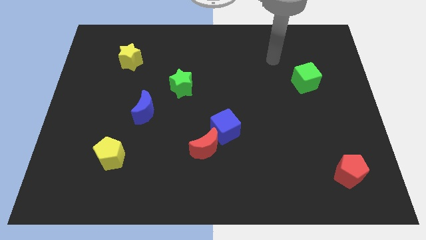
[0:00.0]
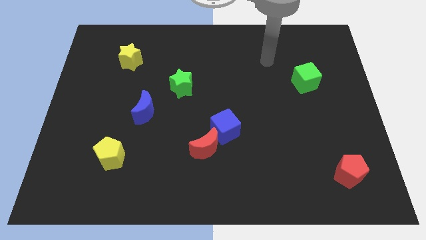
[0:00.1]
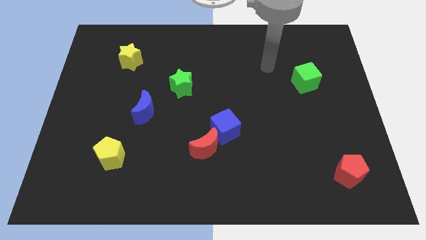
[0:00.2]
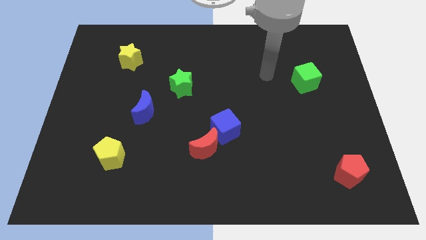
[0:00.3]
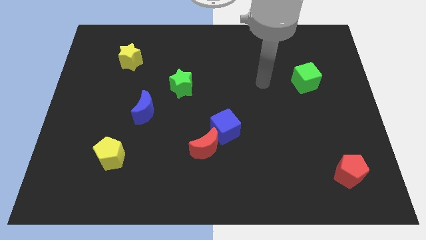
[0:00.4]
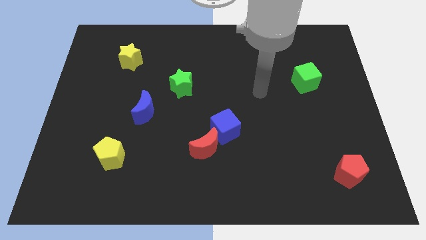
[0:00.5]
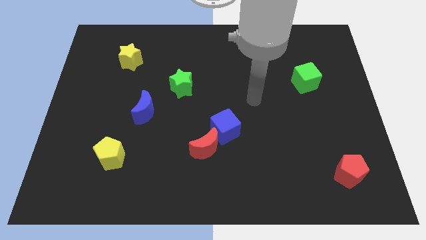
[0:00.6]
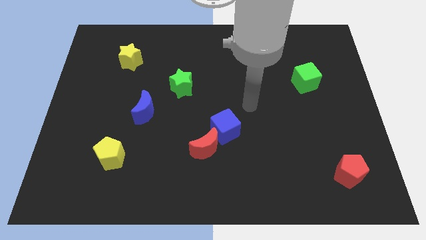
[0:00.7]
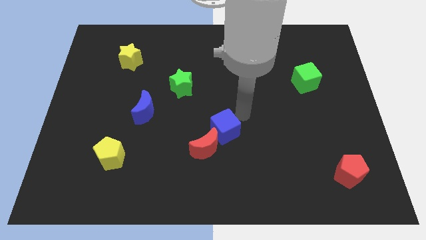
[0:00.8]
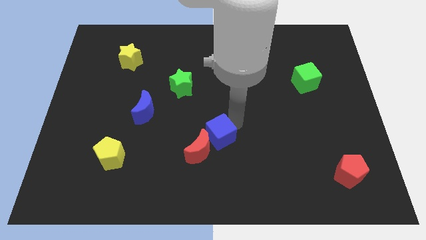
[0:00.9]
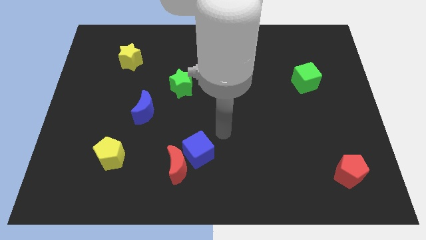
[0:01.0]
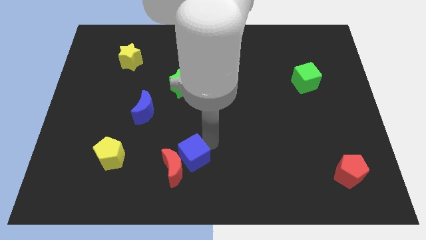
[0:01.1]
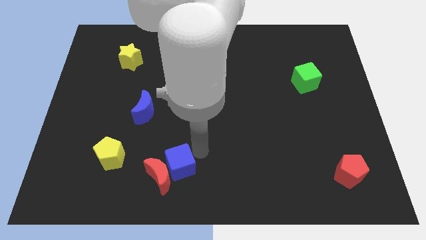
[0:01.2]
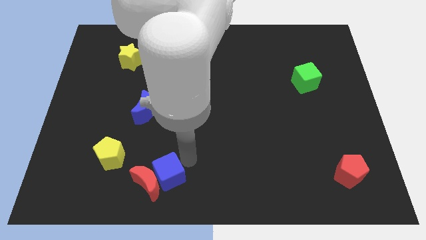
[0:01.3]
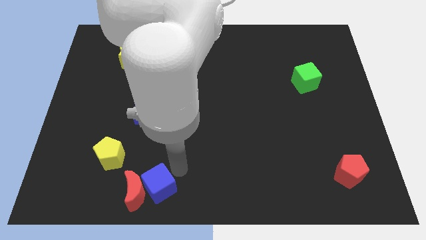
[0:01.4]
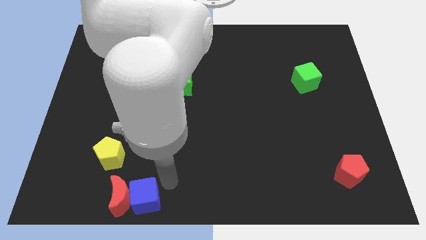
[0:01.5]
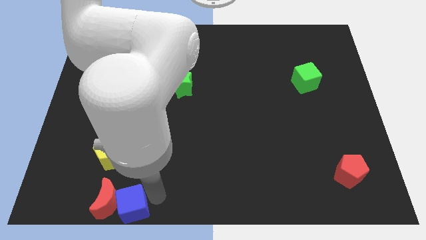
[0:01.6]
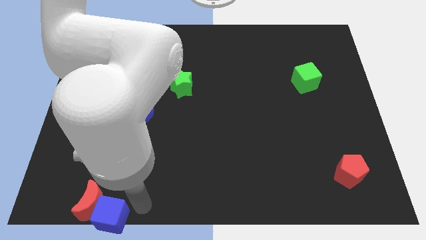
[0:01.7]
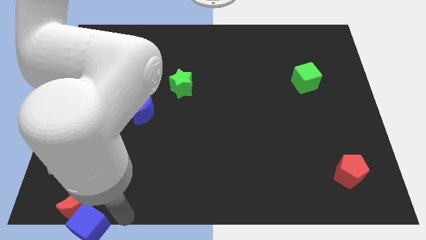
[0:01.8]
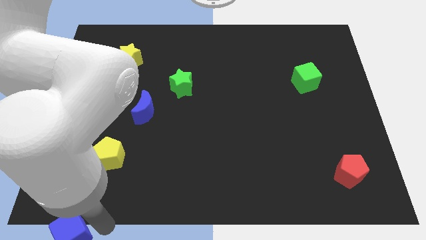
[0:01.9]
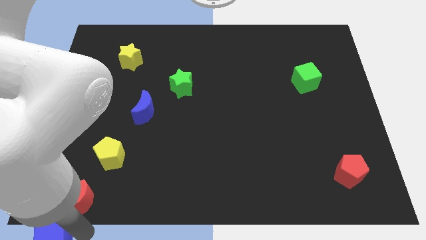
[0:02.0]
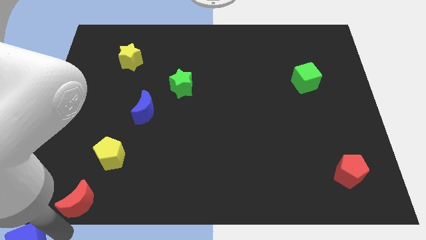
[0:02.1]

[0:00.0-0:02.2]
move the red moon away from the blue cube

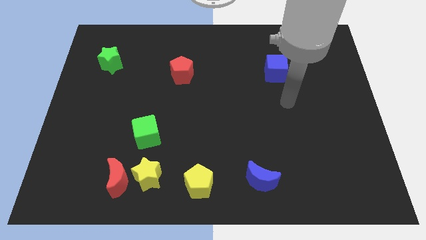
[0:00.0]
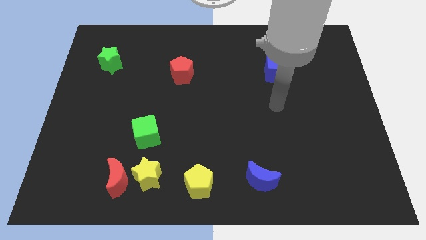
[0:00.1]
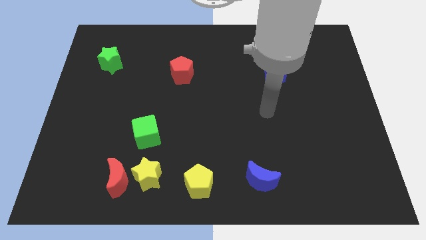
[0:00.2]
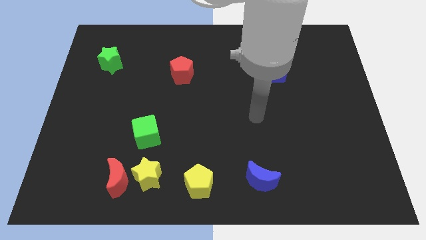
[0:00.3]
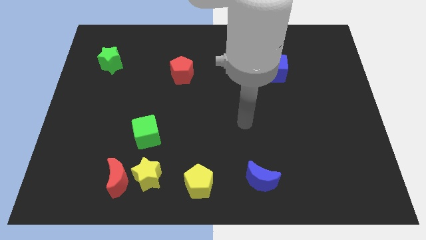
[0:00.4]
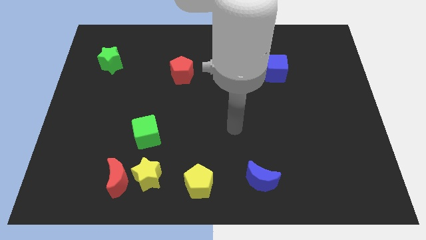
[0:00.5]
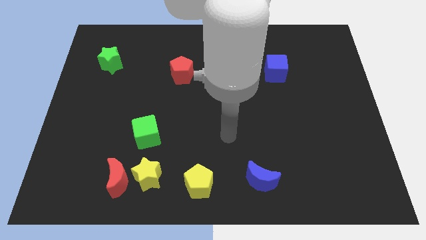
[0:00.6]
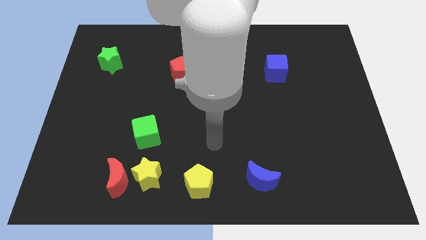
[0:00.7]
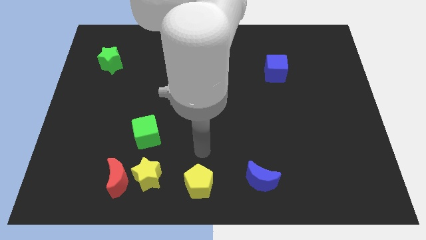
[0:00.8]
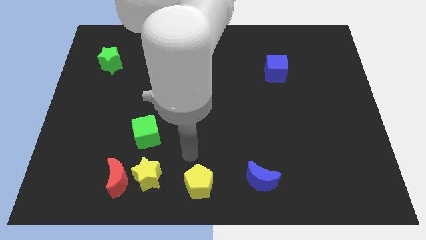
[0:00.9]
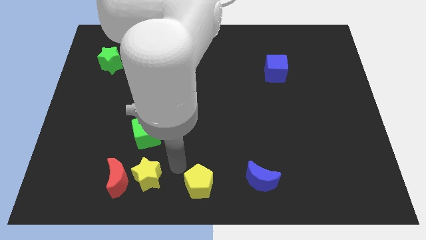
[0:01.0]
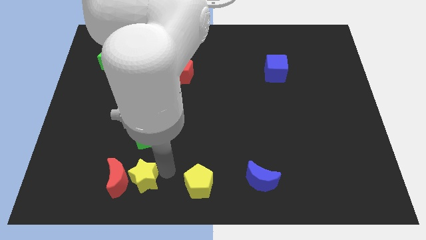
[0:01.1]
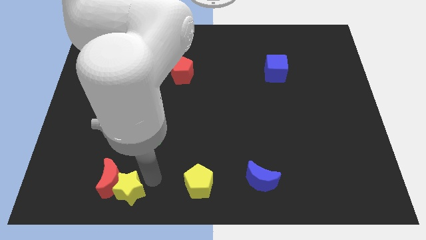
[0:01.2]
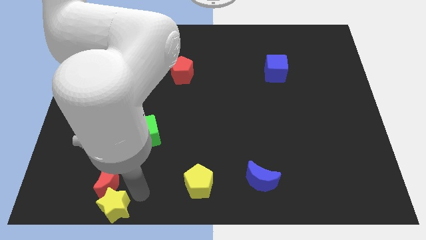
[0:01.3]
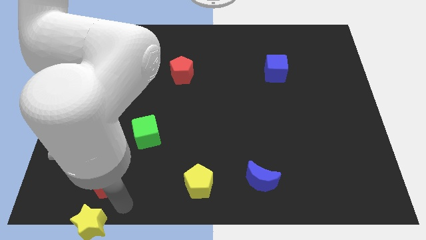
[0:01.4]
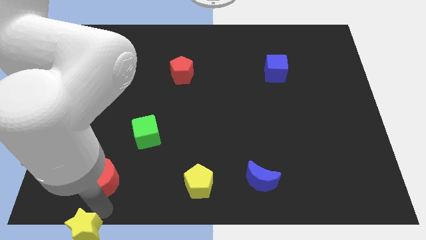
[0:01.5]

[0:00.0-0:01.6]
pull the red moon apart from the yellow star

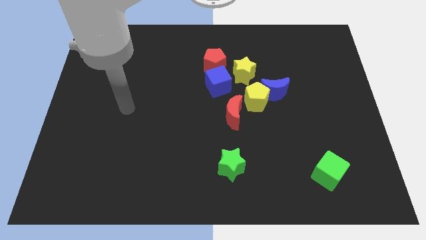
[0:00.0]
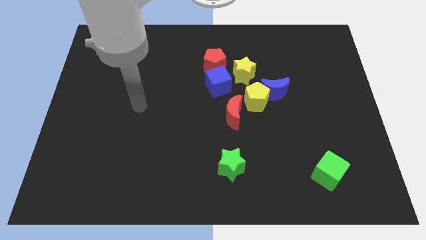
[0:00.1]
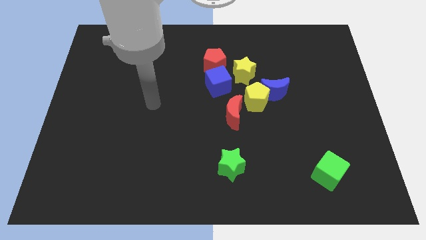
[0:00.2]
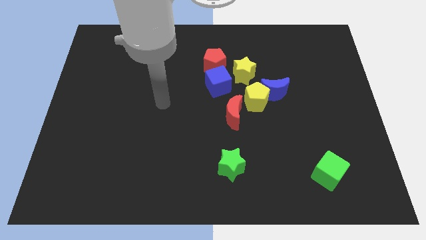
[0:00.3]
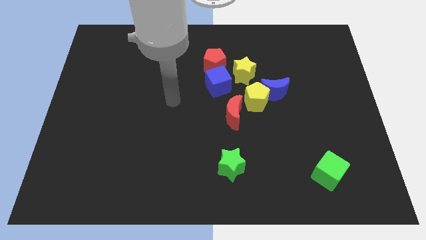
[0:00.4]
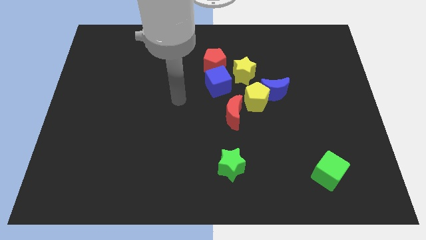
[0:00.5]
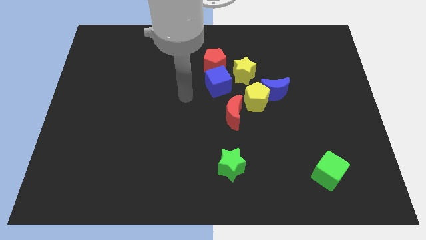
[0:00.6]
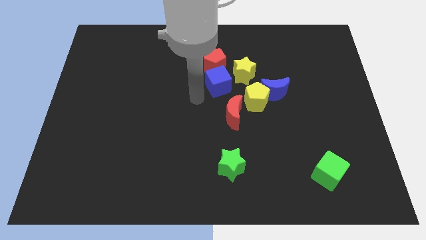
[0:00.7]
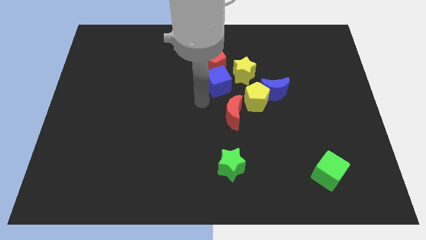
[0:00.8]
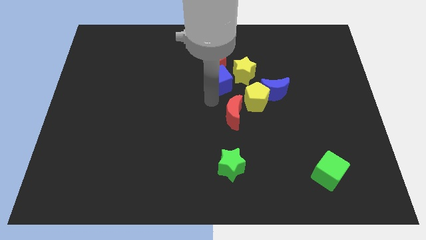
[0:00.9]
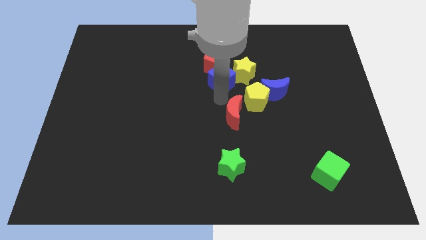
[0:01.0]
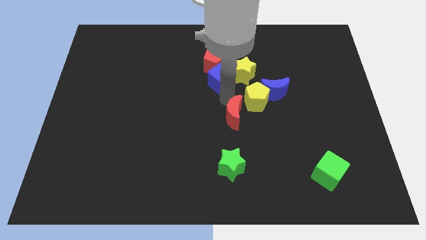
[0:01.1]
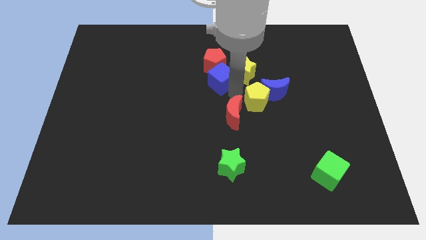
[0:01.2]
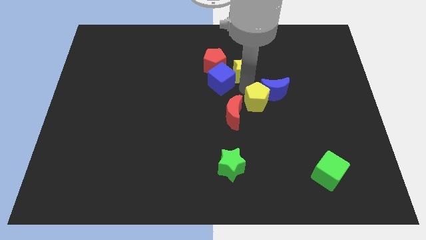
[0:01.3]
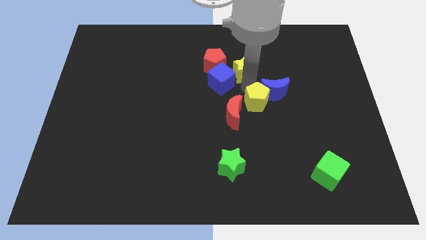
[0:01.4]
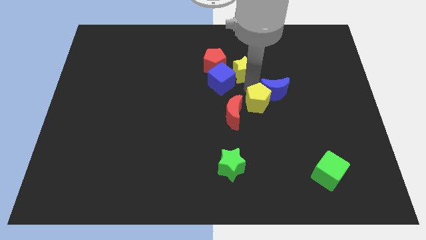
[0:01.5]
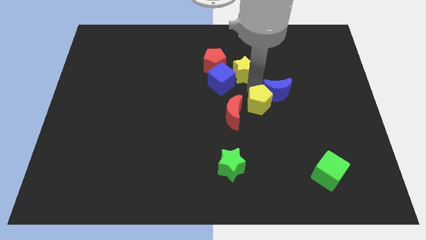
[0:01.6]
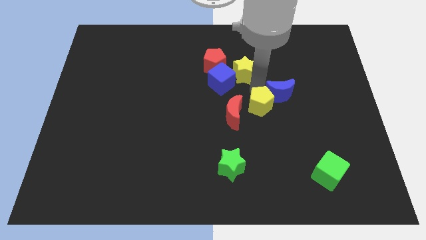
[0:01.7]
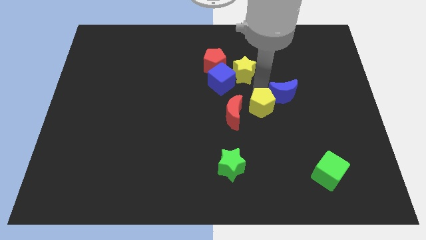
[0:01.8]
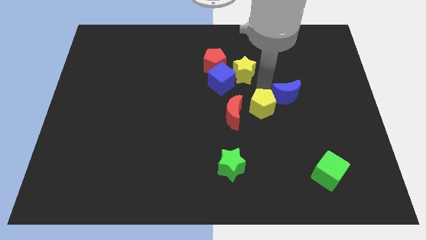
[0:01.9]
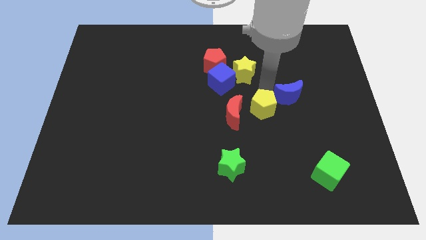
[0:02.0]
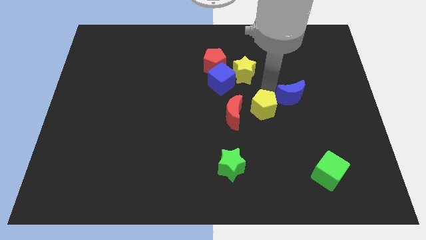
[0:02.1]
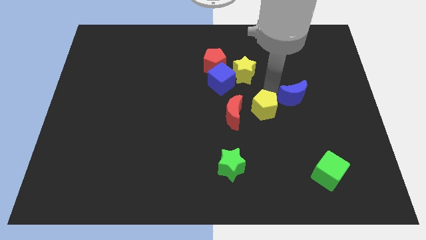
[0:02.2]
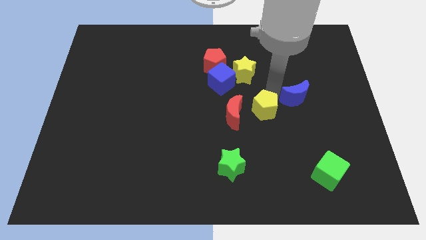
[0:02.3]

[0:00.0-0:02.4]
separate the blue moon from the yellow pentagon and yellow star

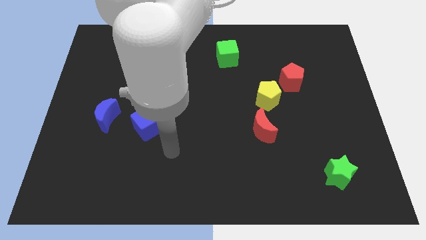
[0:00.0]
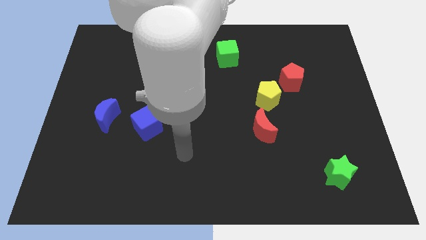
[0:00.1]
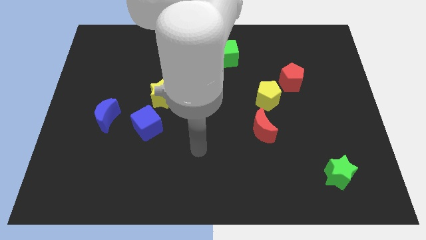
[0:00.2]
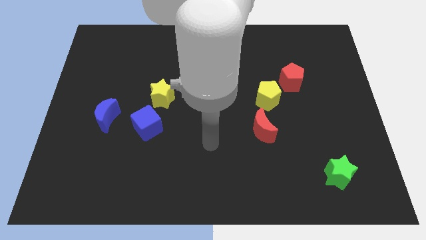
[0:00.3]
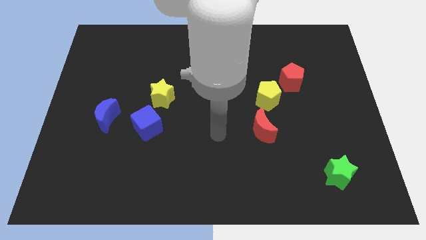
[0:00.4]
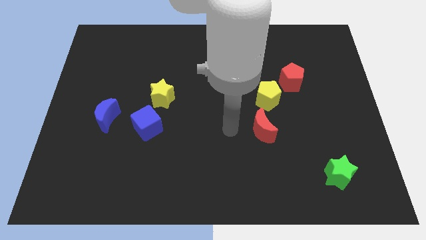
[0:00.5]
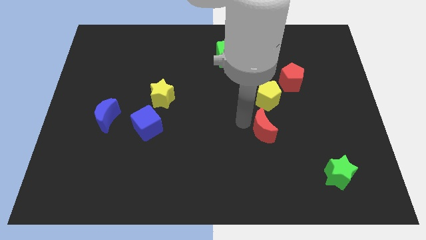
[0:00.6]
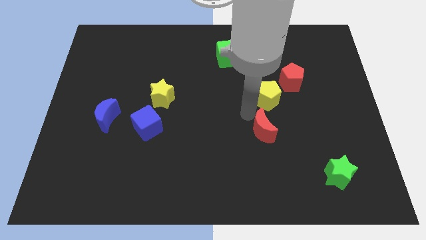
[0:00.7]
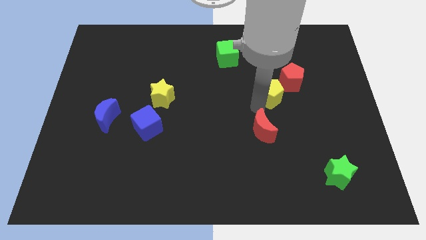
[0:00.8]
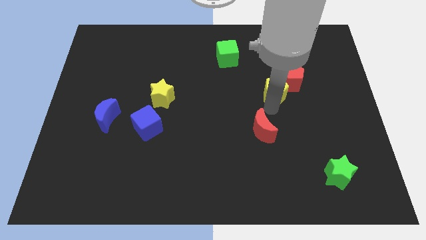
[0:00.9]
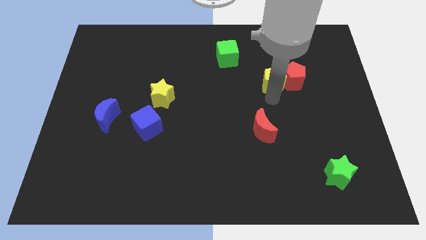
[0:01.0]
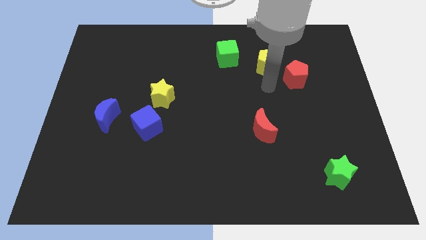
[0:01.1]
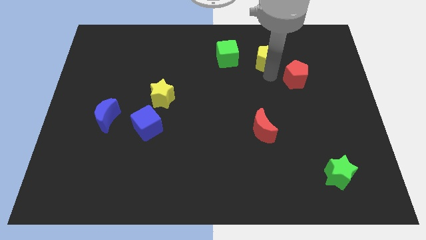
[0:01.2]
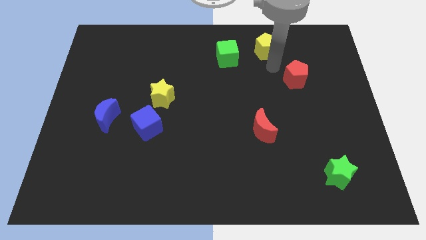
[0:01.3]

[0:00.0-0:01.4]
move the red pentagon away from the yellow pentagon

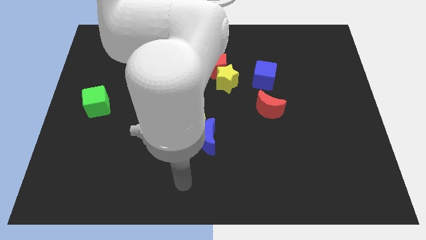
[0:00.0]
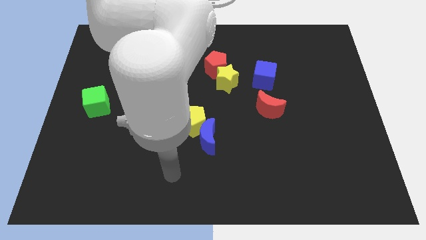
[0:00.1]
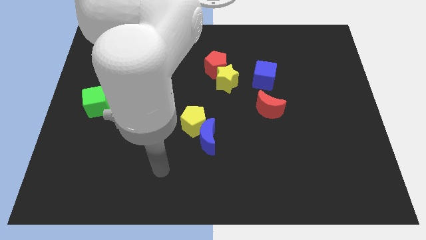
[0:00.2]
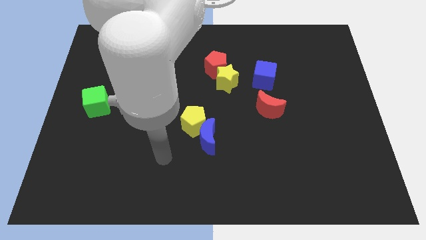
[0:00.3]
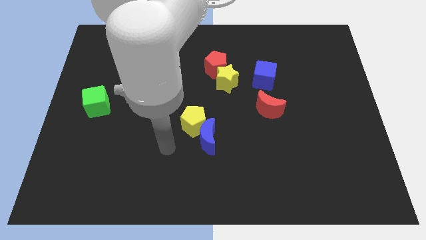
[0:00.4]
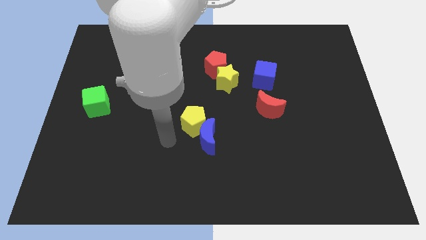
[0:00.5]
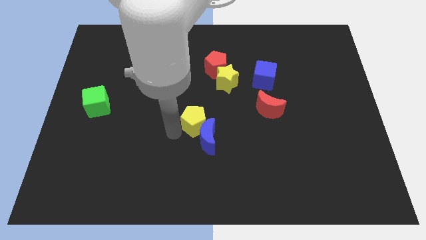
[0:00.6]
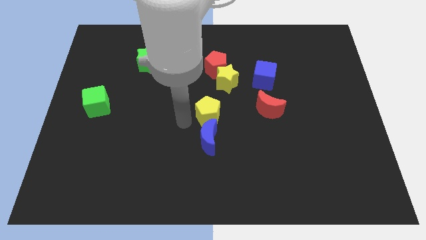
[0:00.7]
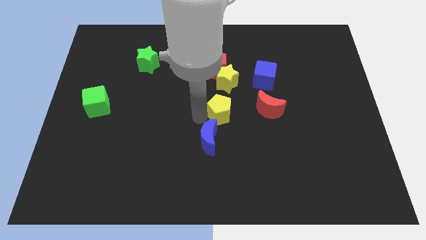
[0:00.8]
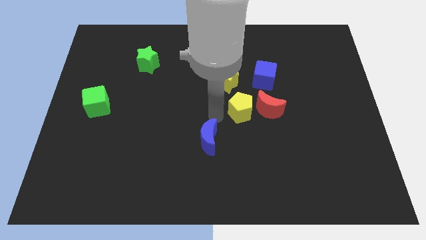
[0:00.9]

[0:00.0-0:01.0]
pull the blue moon apart from the yellow pentagon

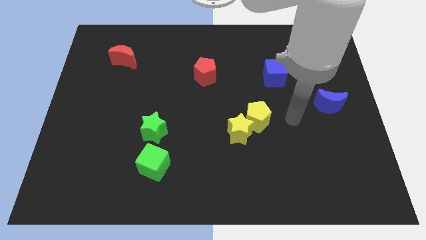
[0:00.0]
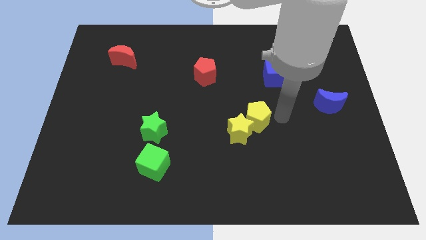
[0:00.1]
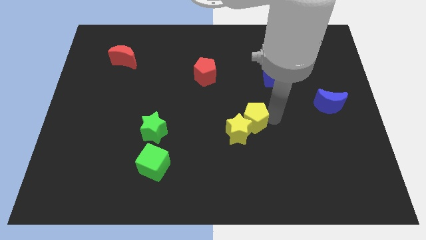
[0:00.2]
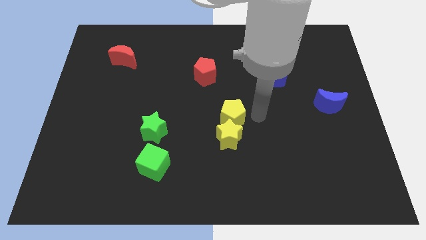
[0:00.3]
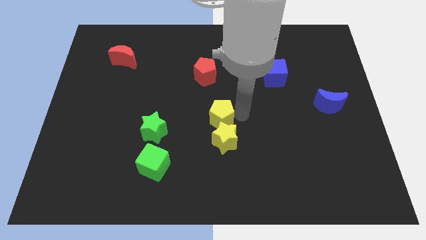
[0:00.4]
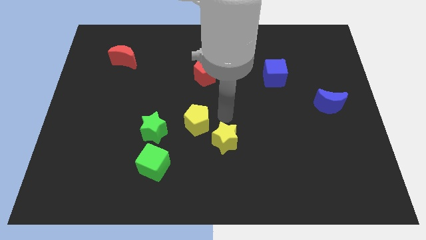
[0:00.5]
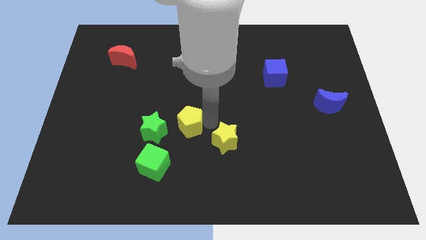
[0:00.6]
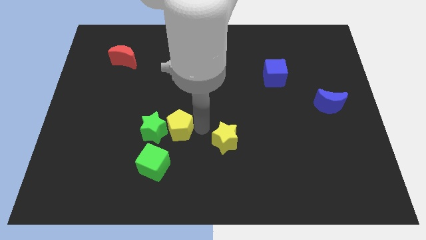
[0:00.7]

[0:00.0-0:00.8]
move the yellow star away from the yellow pentagon
